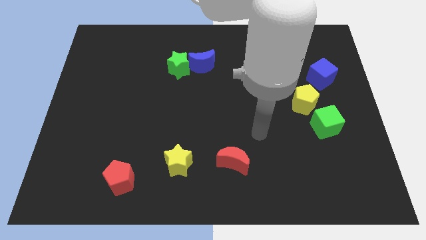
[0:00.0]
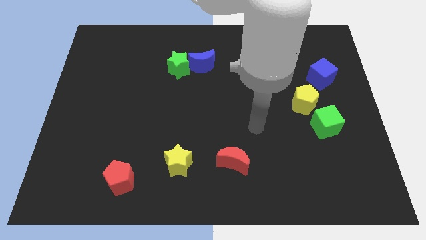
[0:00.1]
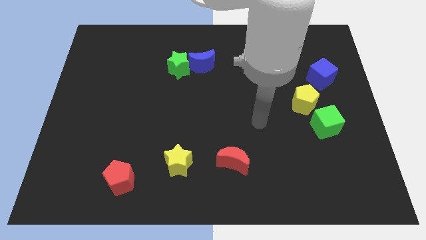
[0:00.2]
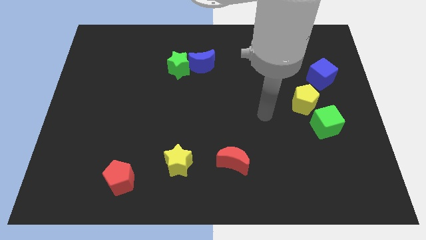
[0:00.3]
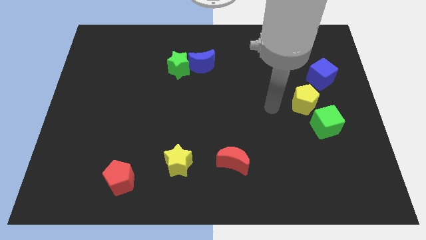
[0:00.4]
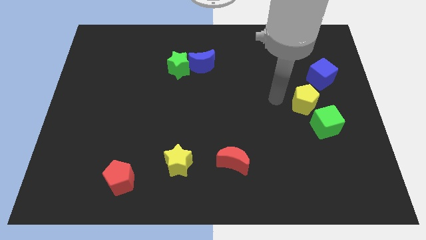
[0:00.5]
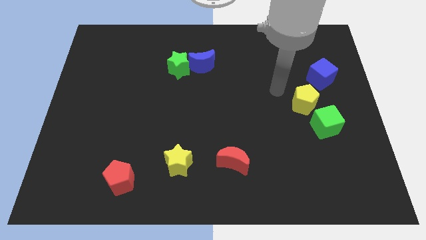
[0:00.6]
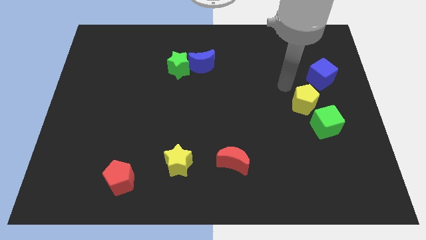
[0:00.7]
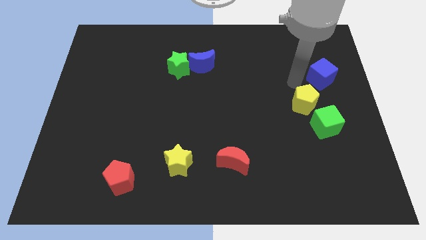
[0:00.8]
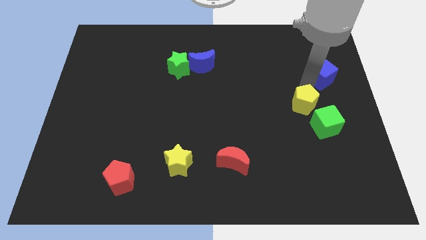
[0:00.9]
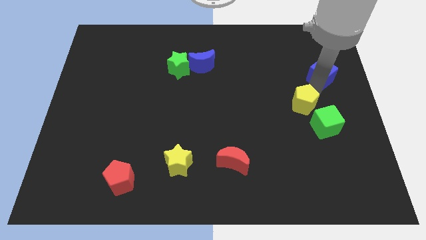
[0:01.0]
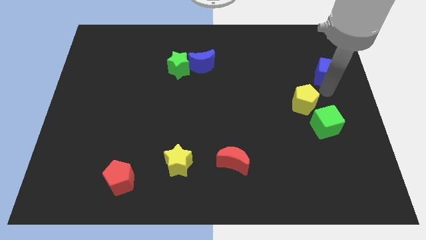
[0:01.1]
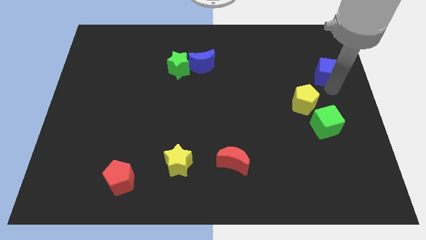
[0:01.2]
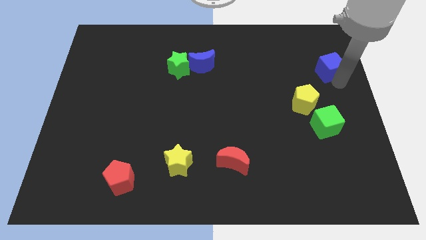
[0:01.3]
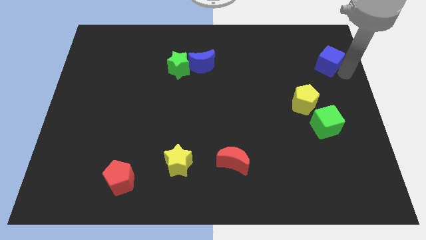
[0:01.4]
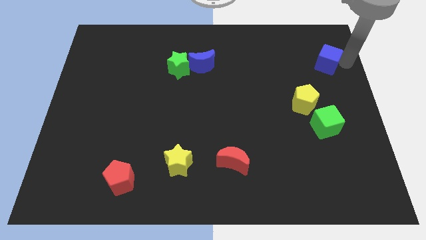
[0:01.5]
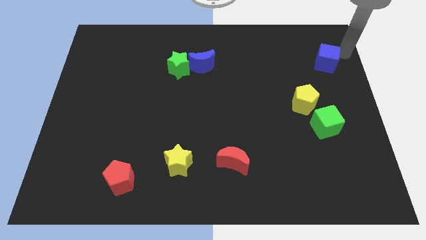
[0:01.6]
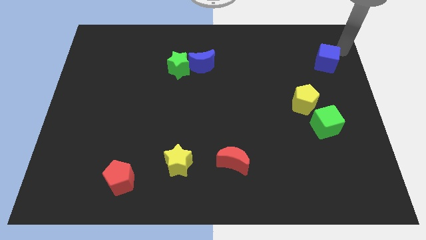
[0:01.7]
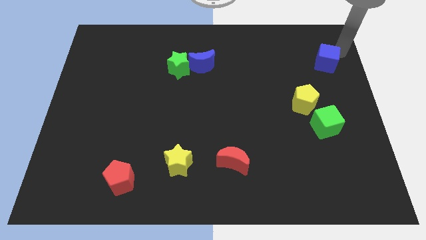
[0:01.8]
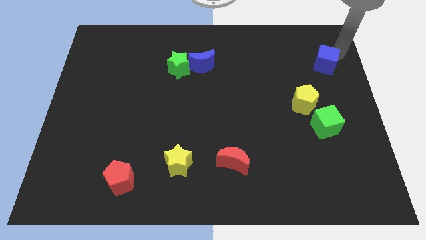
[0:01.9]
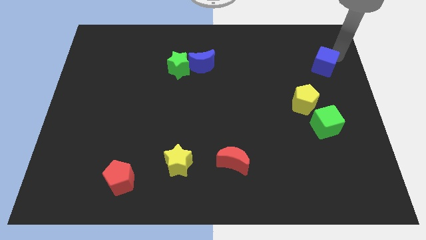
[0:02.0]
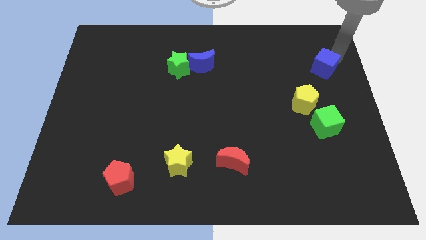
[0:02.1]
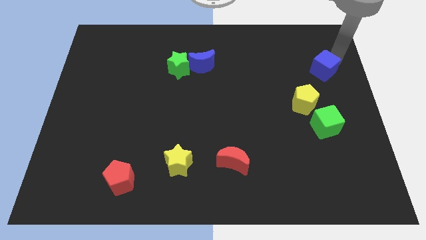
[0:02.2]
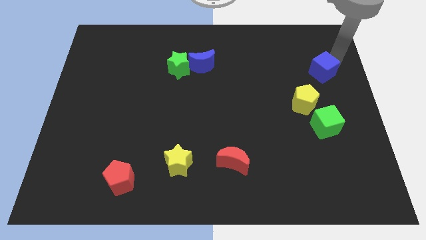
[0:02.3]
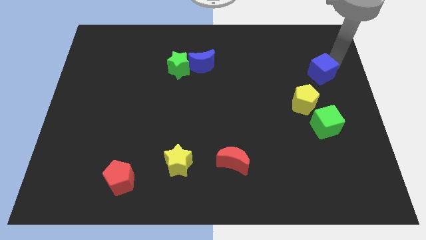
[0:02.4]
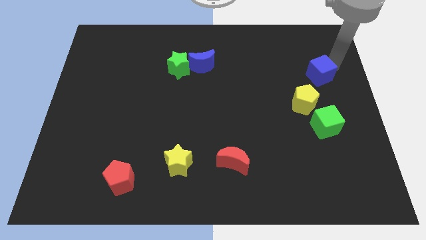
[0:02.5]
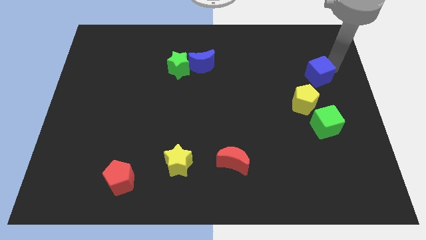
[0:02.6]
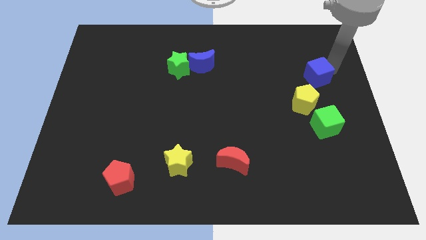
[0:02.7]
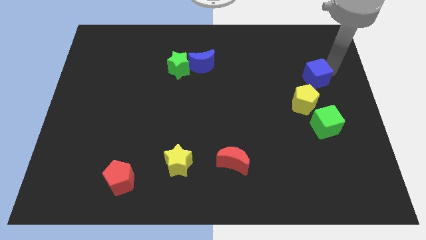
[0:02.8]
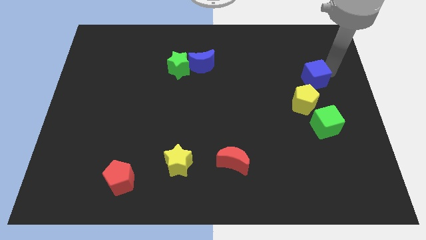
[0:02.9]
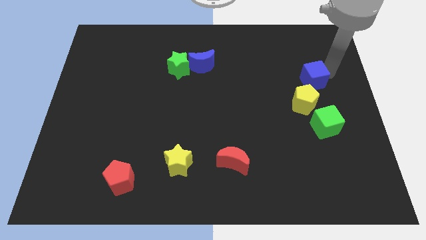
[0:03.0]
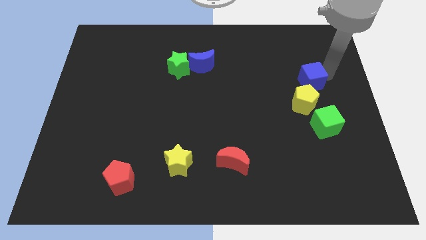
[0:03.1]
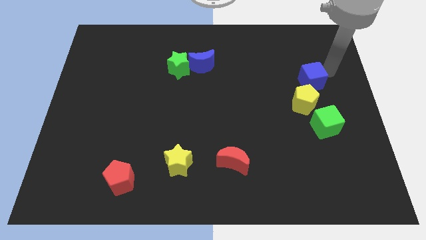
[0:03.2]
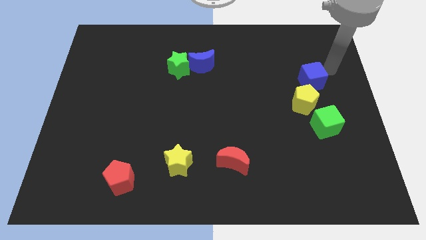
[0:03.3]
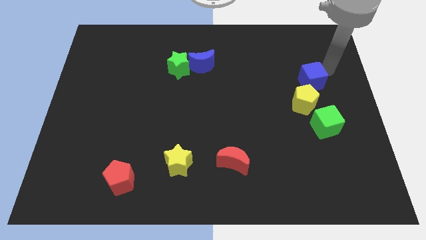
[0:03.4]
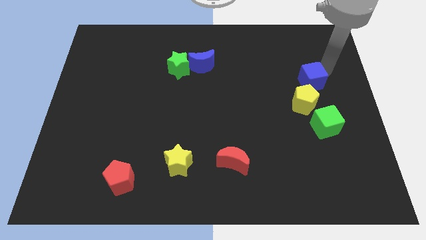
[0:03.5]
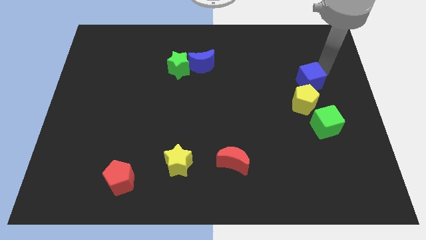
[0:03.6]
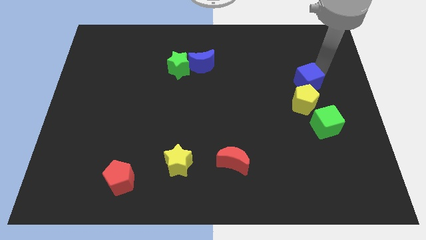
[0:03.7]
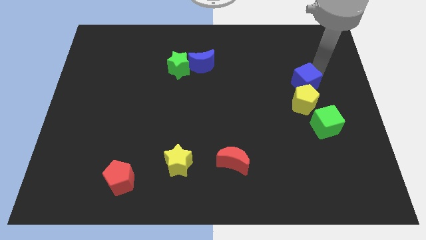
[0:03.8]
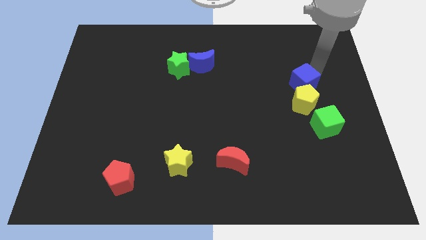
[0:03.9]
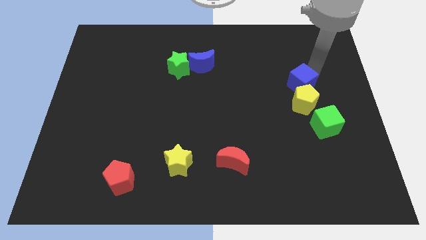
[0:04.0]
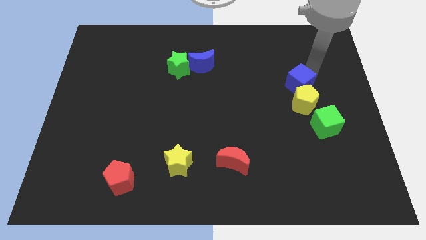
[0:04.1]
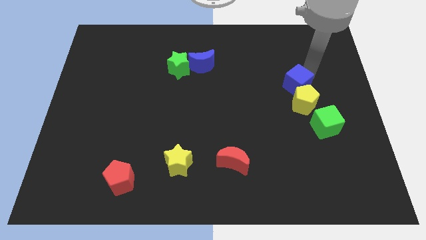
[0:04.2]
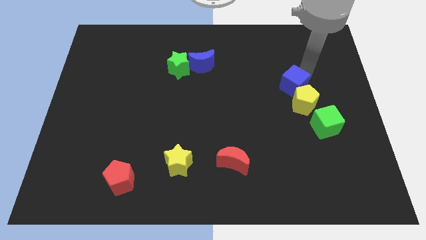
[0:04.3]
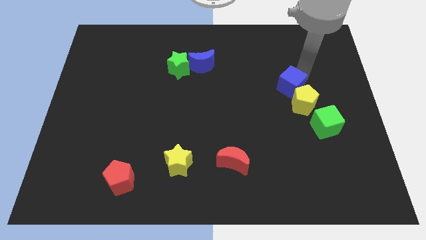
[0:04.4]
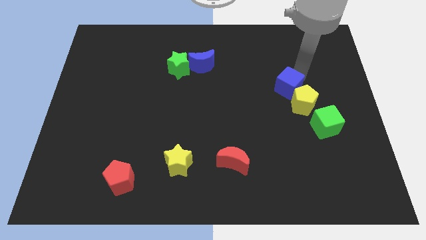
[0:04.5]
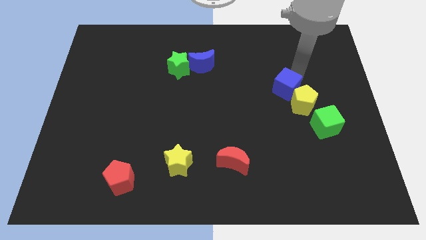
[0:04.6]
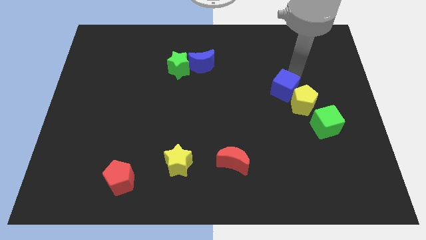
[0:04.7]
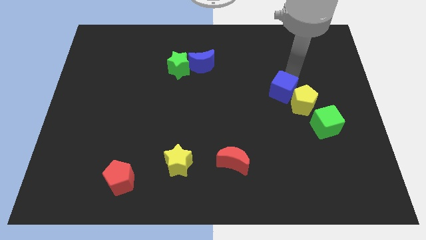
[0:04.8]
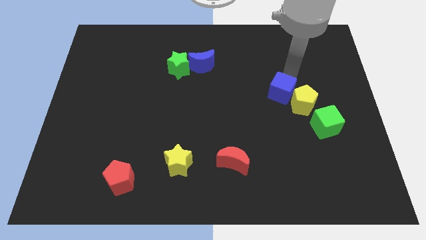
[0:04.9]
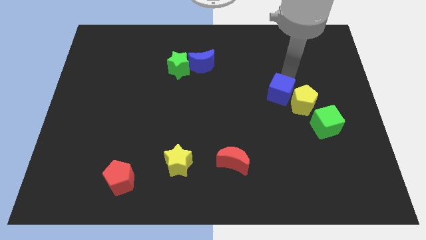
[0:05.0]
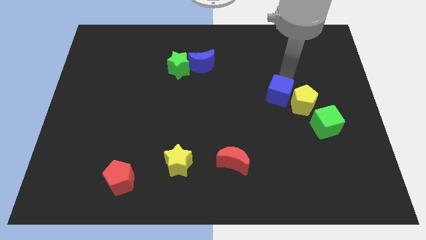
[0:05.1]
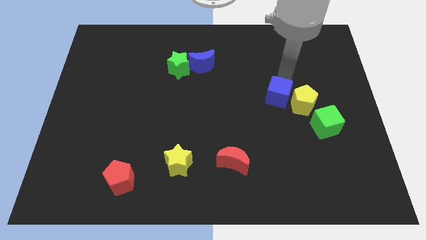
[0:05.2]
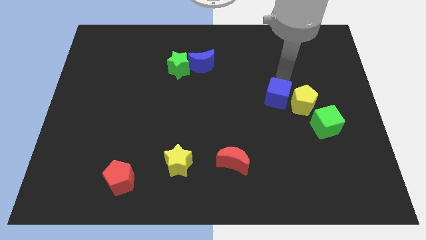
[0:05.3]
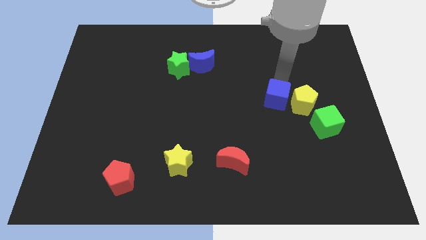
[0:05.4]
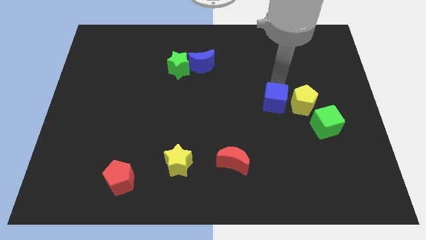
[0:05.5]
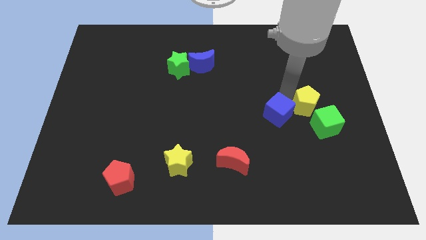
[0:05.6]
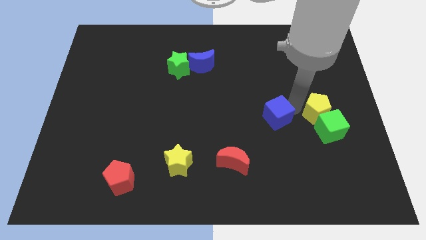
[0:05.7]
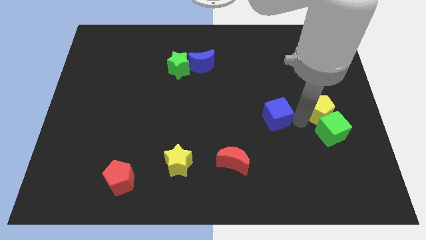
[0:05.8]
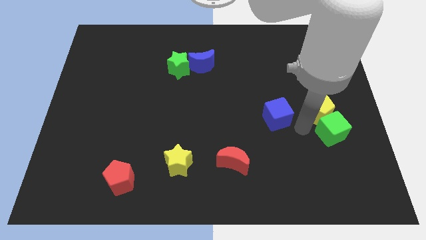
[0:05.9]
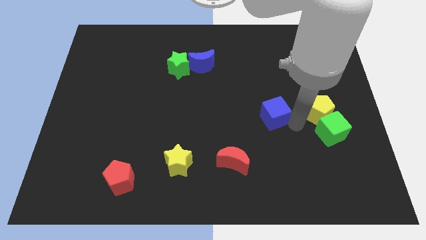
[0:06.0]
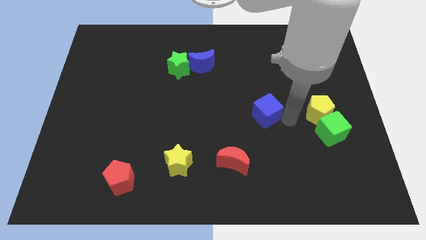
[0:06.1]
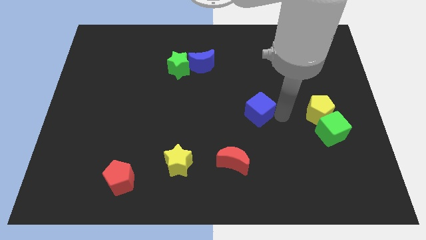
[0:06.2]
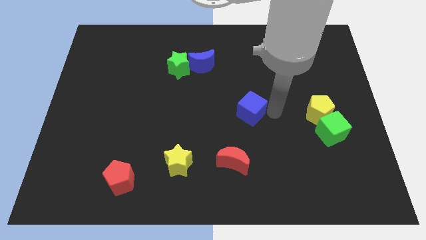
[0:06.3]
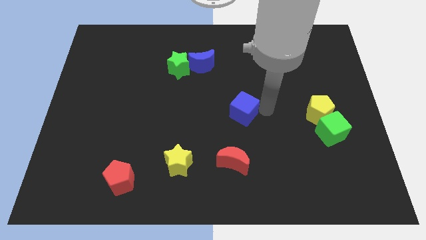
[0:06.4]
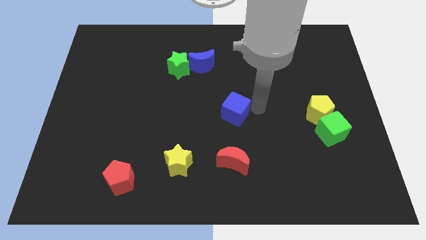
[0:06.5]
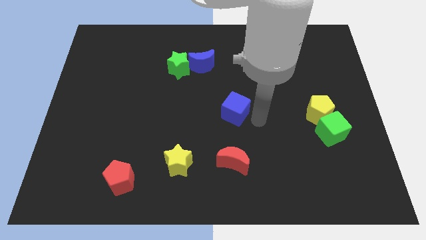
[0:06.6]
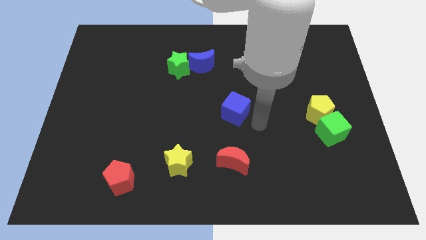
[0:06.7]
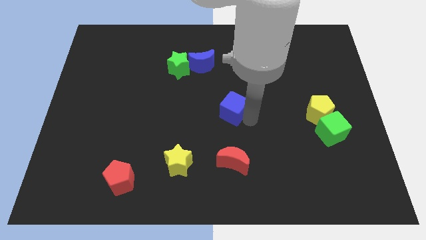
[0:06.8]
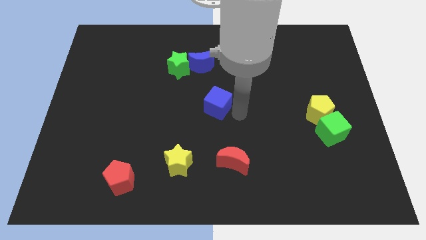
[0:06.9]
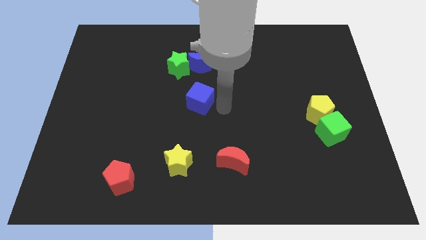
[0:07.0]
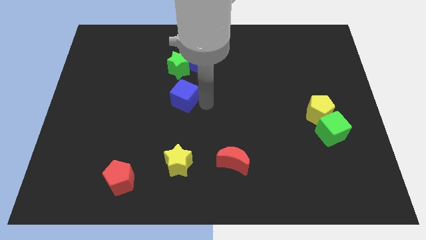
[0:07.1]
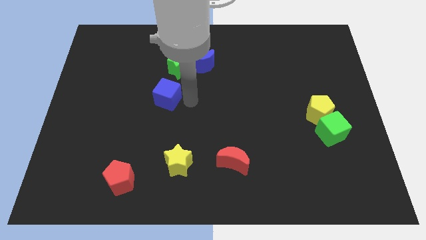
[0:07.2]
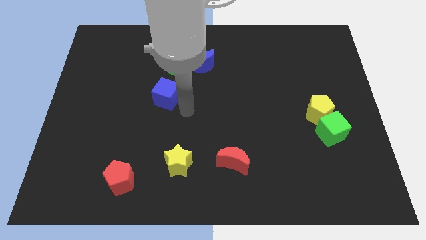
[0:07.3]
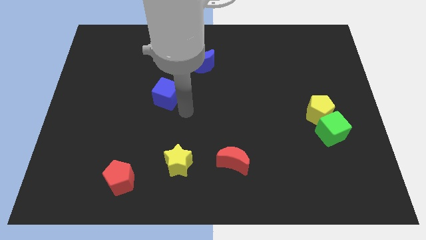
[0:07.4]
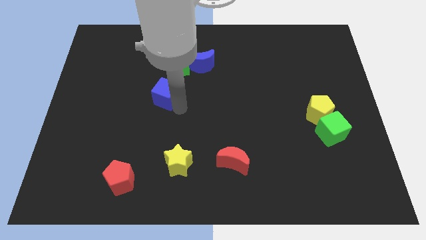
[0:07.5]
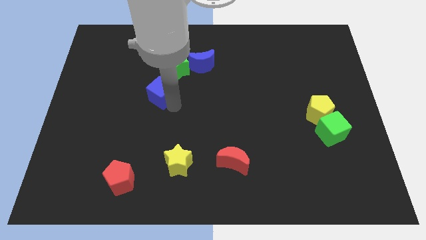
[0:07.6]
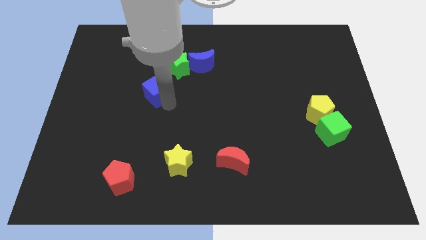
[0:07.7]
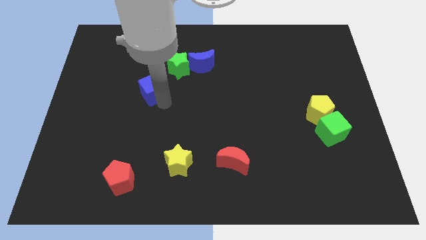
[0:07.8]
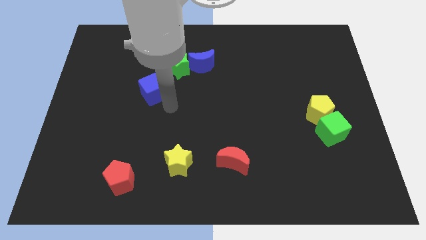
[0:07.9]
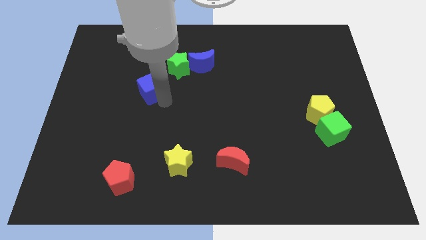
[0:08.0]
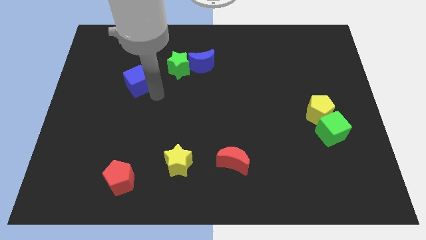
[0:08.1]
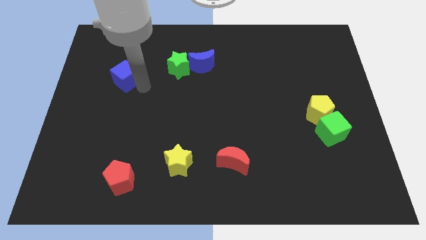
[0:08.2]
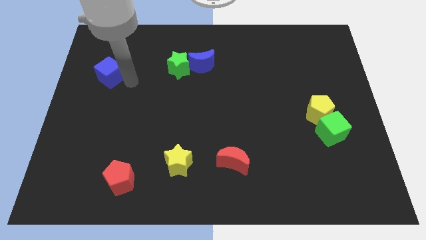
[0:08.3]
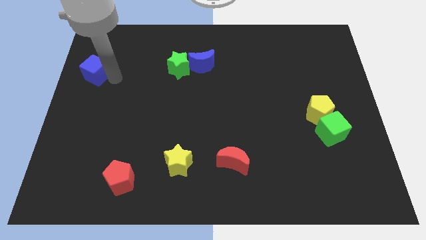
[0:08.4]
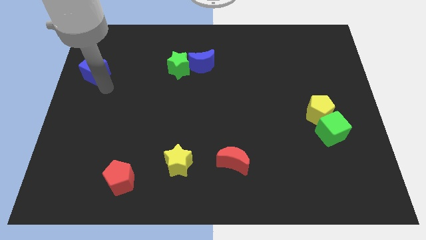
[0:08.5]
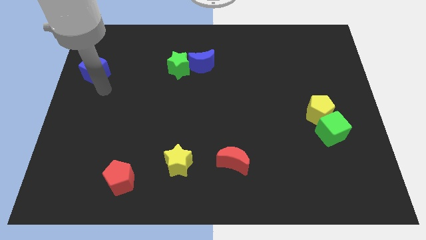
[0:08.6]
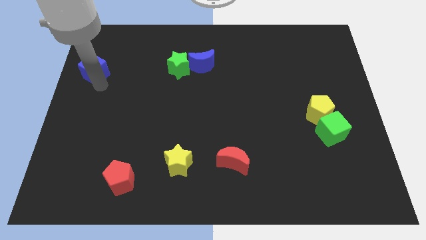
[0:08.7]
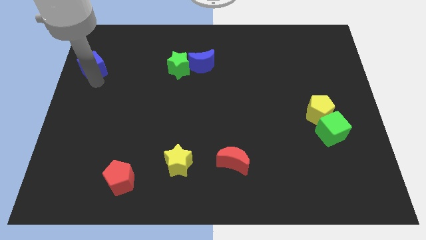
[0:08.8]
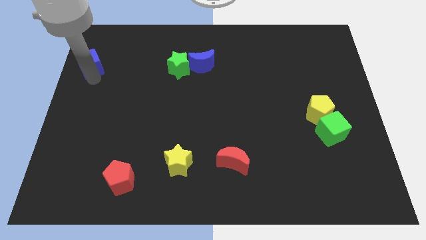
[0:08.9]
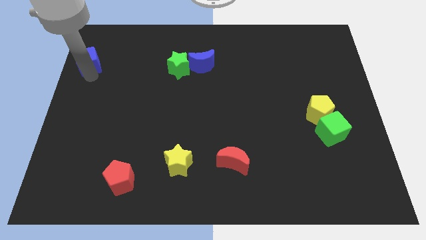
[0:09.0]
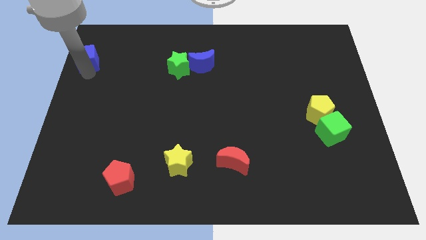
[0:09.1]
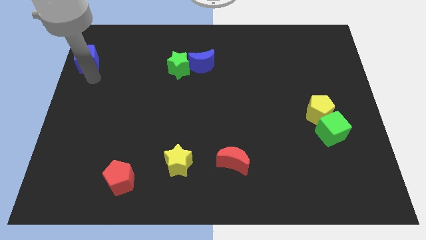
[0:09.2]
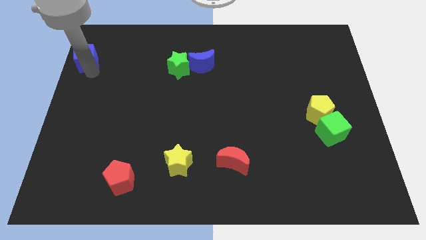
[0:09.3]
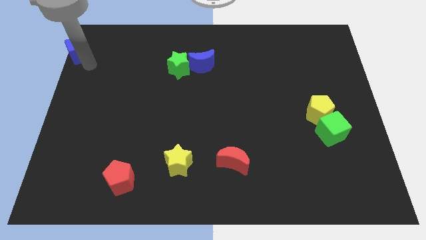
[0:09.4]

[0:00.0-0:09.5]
slide the blue cube to the top left corner
